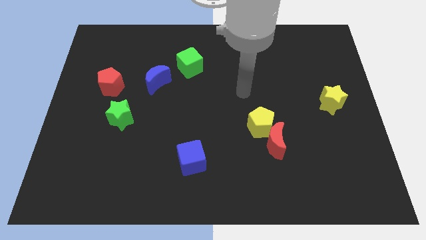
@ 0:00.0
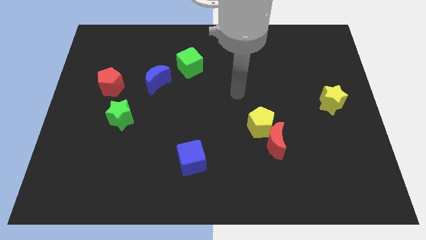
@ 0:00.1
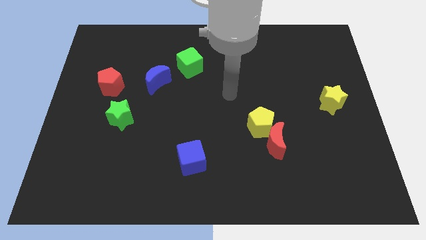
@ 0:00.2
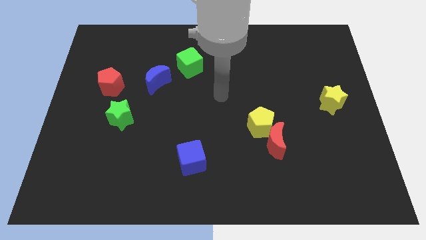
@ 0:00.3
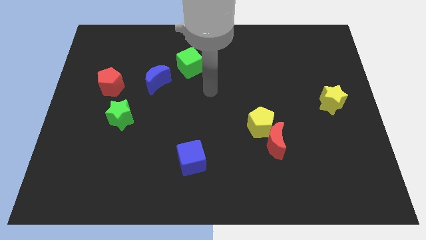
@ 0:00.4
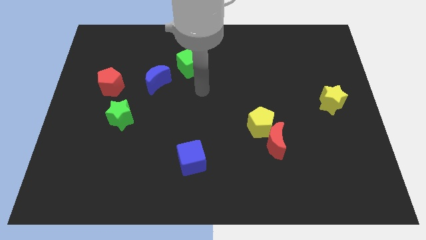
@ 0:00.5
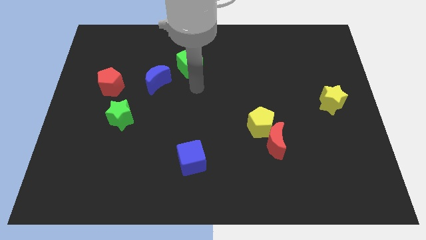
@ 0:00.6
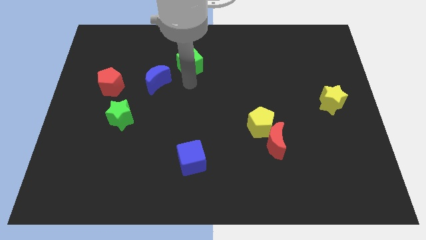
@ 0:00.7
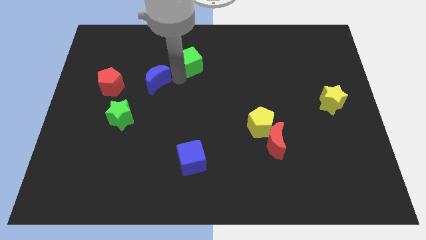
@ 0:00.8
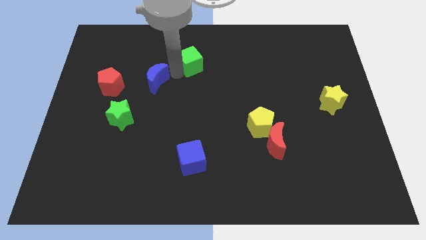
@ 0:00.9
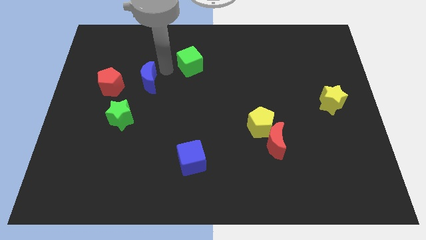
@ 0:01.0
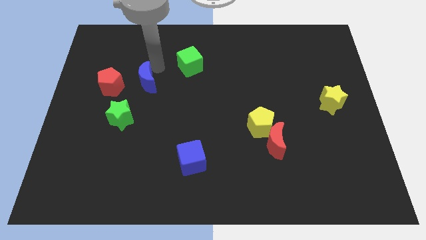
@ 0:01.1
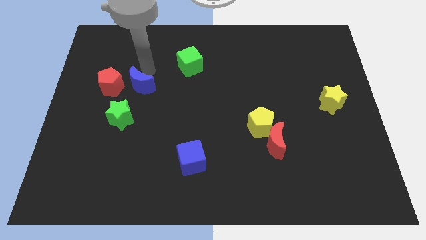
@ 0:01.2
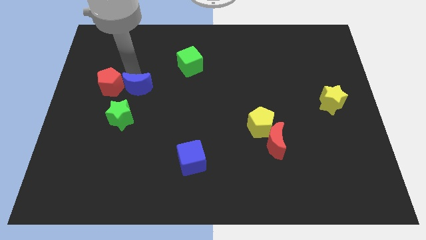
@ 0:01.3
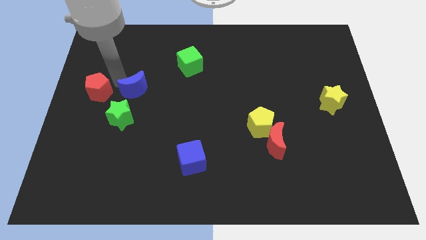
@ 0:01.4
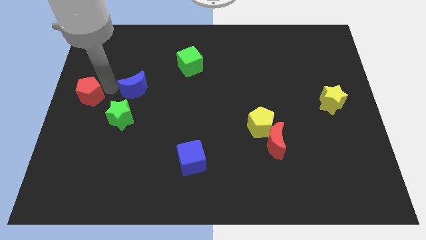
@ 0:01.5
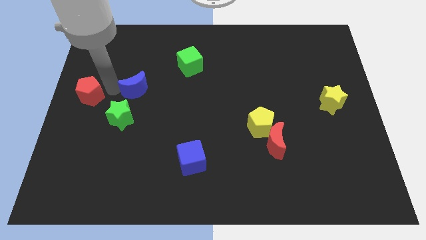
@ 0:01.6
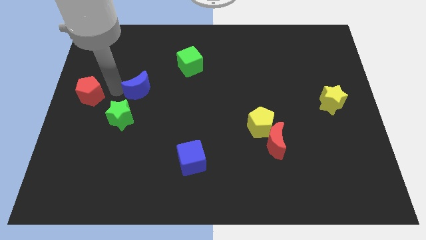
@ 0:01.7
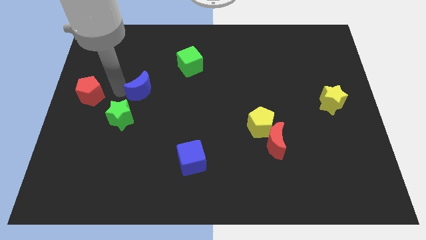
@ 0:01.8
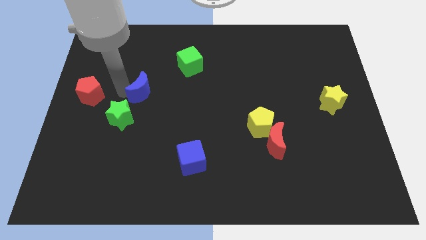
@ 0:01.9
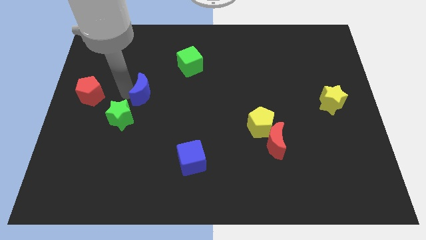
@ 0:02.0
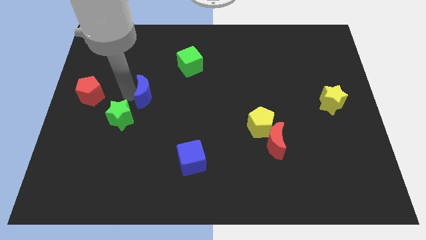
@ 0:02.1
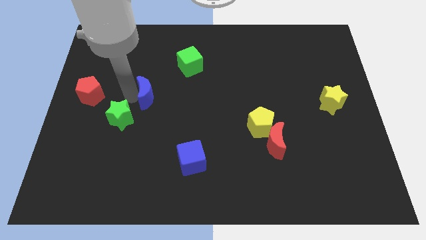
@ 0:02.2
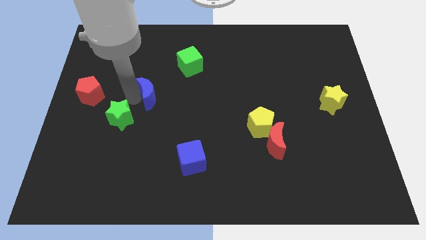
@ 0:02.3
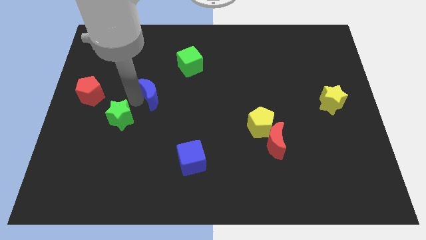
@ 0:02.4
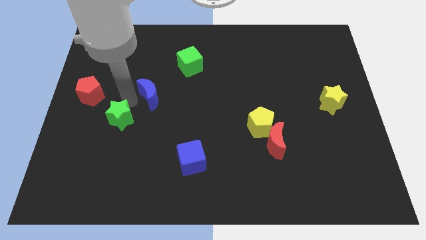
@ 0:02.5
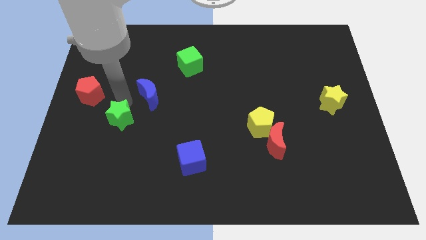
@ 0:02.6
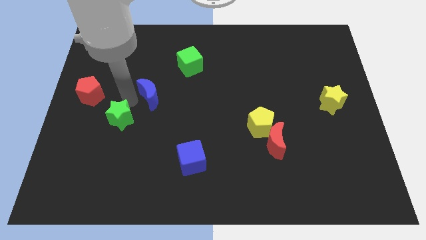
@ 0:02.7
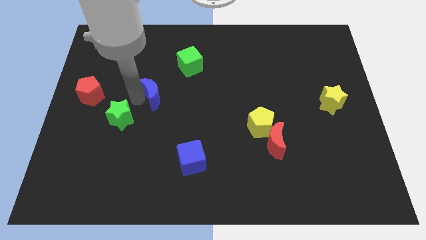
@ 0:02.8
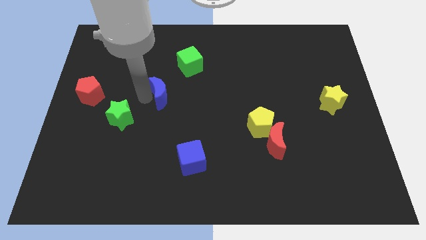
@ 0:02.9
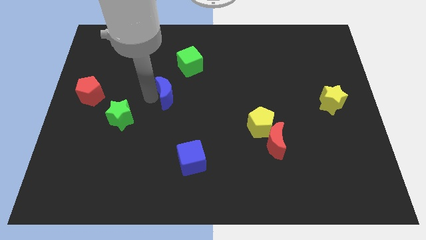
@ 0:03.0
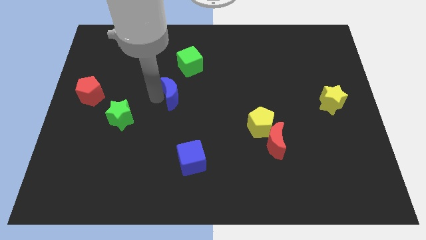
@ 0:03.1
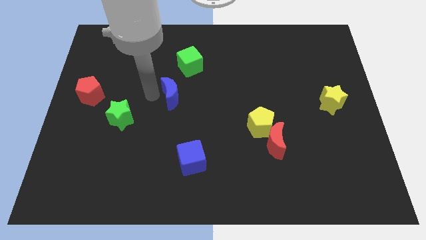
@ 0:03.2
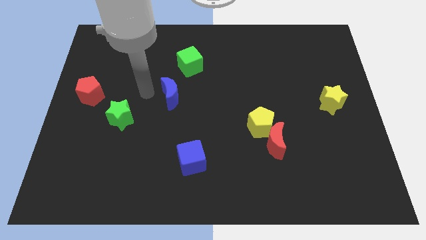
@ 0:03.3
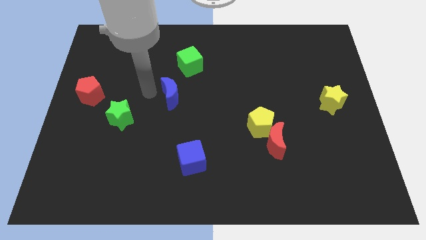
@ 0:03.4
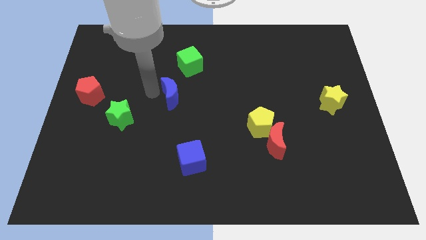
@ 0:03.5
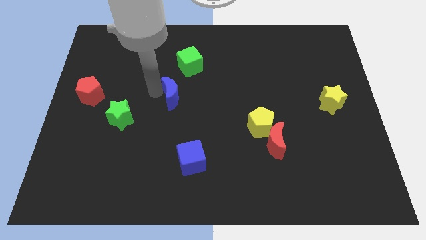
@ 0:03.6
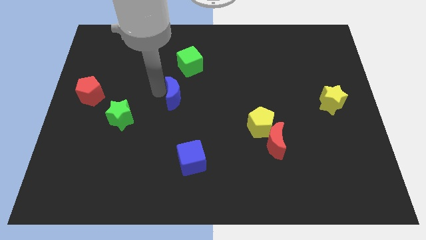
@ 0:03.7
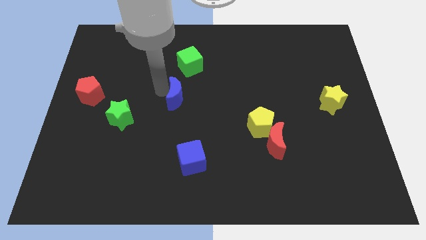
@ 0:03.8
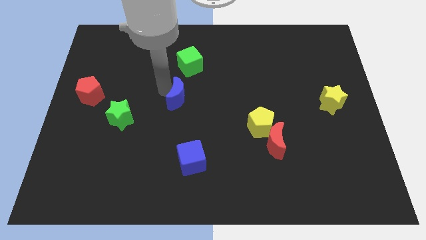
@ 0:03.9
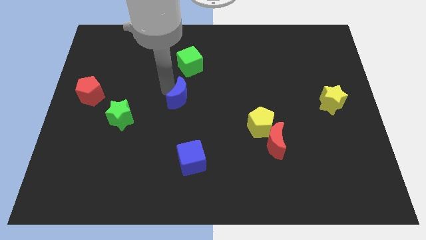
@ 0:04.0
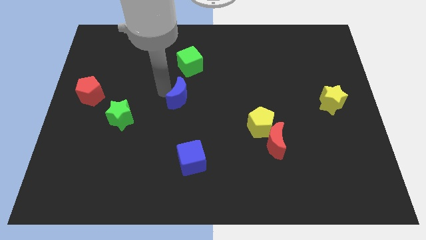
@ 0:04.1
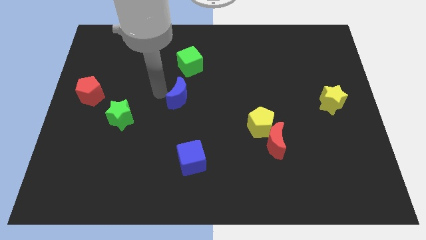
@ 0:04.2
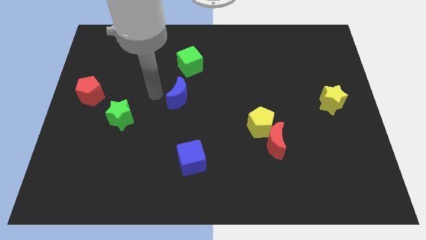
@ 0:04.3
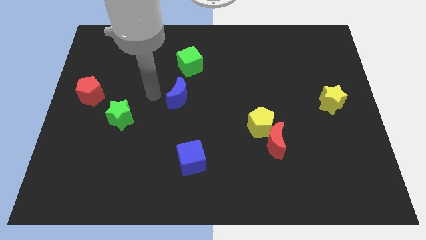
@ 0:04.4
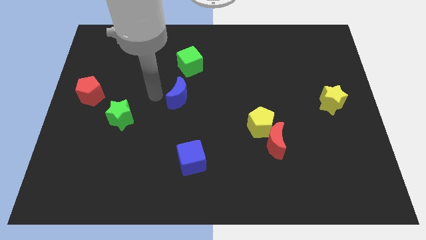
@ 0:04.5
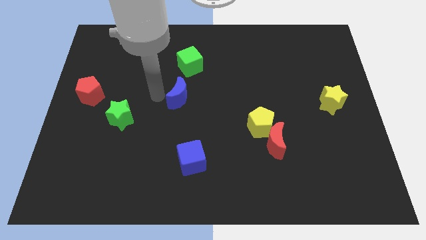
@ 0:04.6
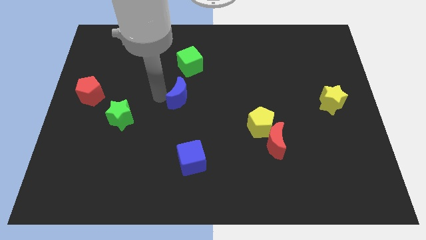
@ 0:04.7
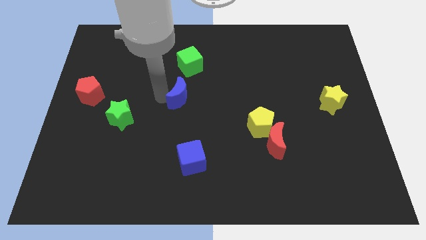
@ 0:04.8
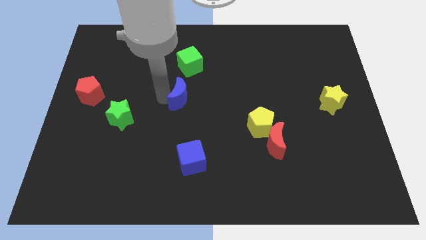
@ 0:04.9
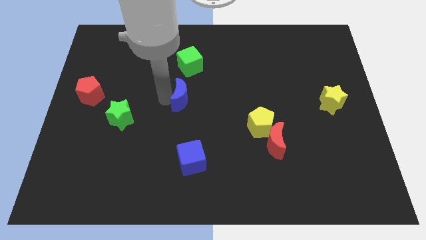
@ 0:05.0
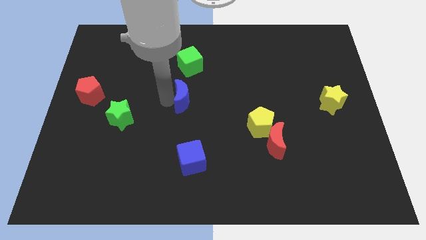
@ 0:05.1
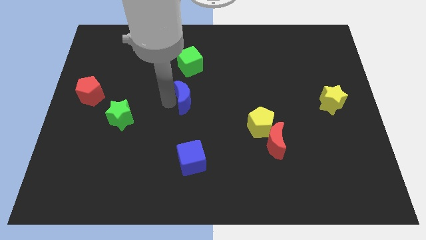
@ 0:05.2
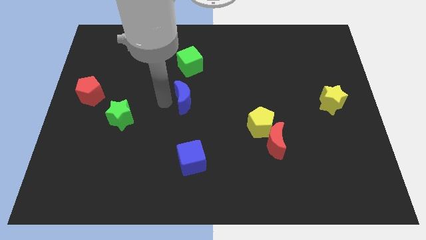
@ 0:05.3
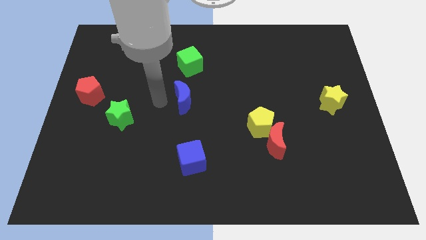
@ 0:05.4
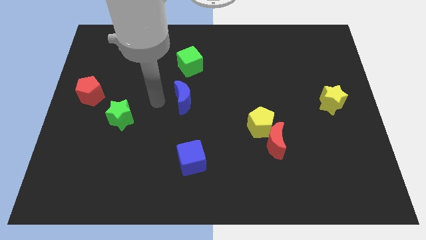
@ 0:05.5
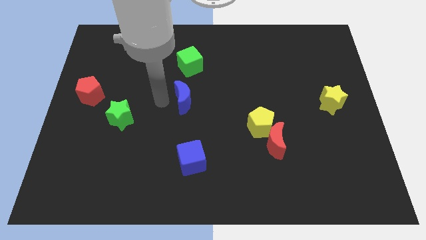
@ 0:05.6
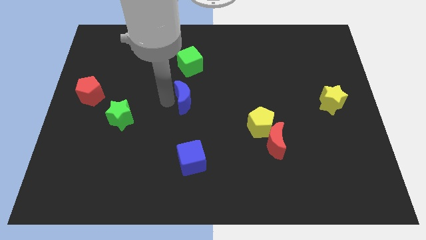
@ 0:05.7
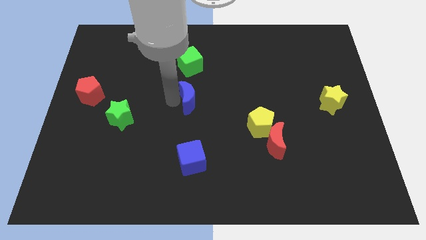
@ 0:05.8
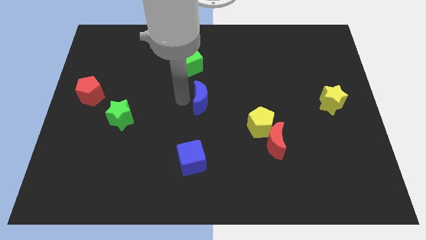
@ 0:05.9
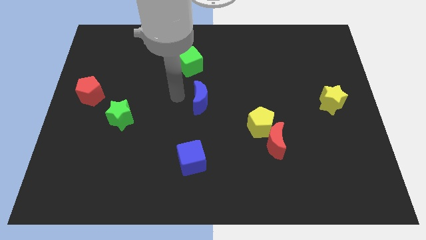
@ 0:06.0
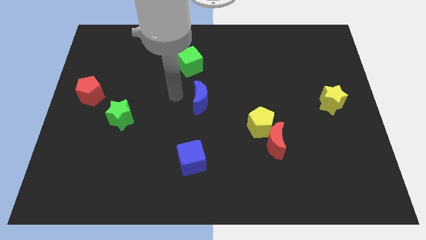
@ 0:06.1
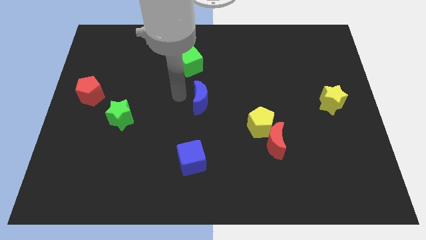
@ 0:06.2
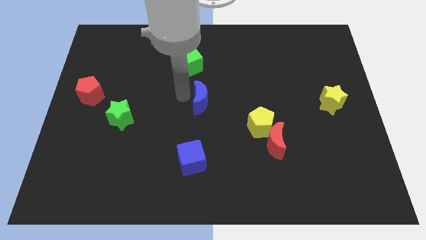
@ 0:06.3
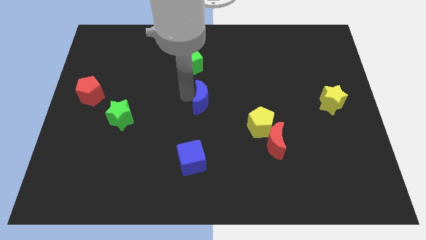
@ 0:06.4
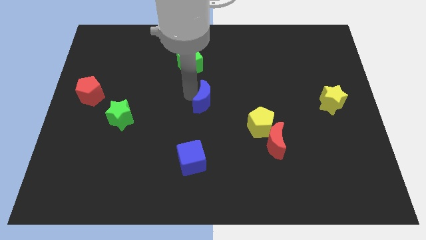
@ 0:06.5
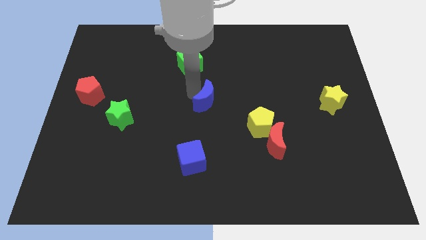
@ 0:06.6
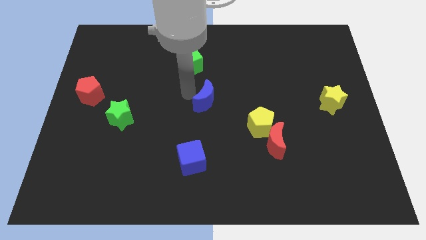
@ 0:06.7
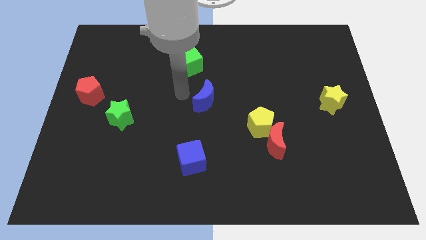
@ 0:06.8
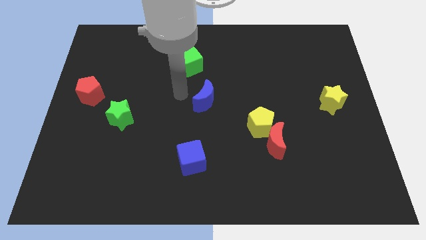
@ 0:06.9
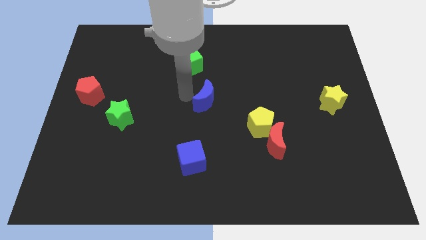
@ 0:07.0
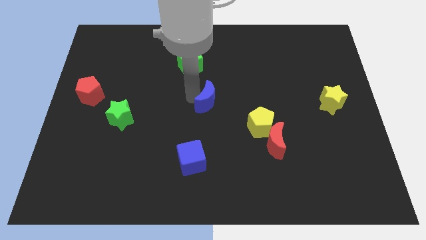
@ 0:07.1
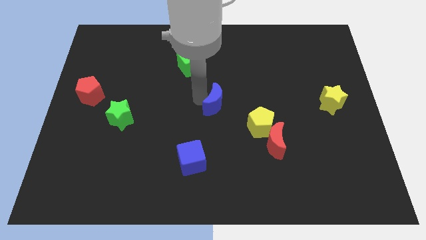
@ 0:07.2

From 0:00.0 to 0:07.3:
slide the blue moon diagonally up and to the left of the yellow pentagon
